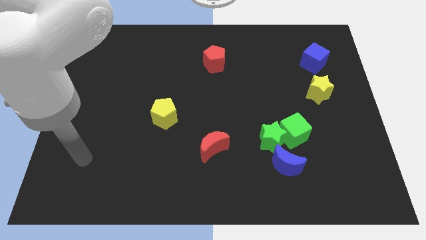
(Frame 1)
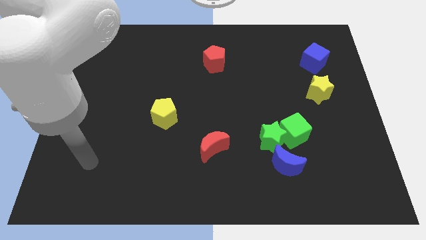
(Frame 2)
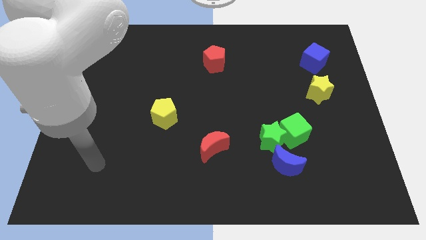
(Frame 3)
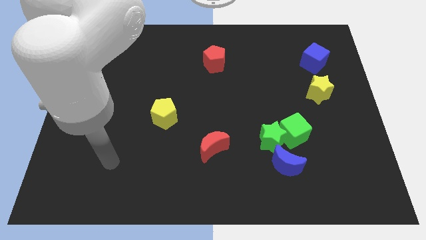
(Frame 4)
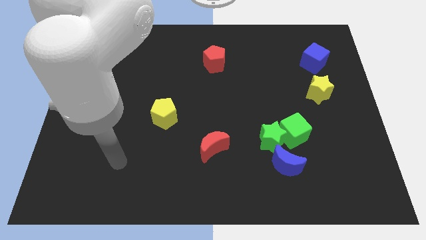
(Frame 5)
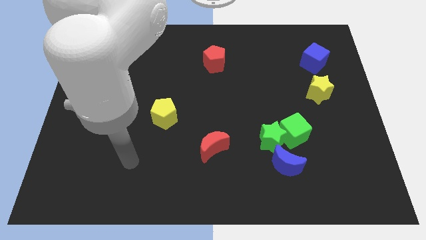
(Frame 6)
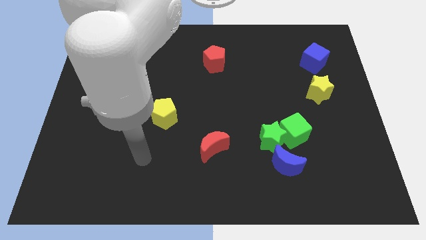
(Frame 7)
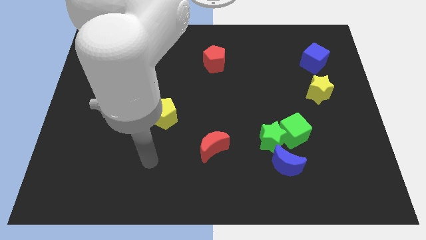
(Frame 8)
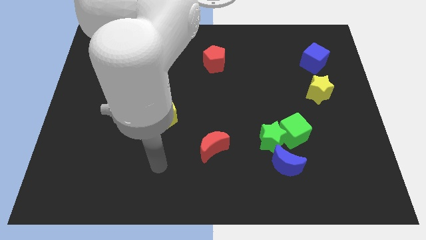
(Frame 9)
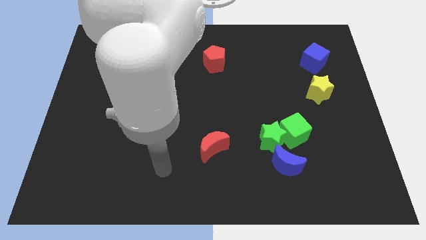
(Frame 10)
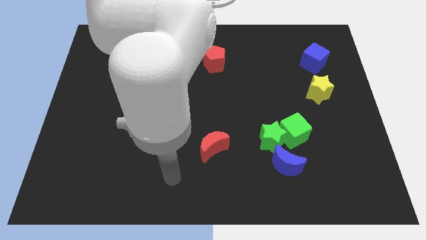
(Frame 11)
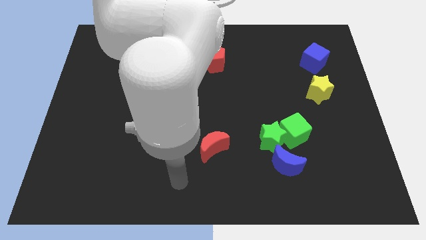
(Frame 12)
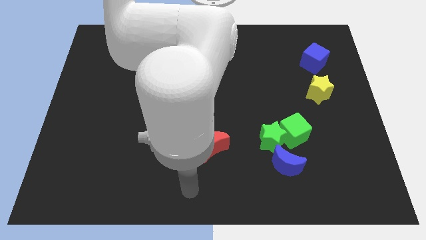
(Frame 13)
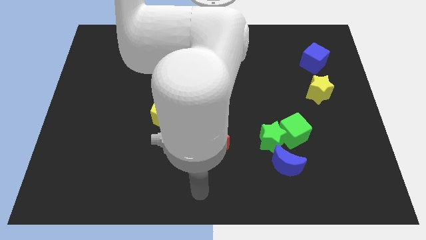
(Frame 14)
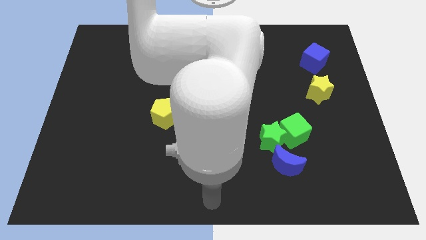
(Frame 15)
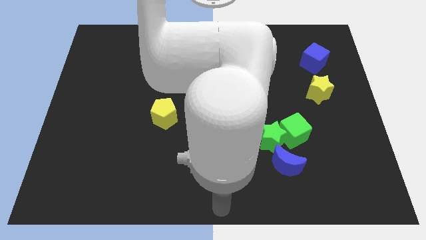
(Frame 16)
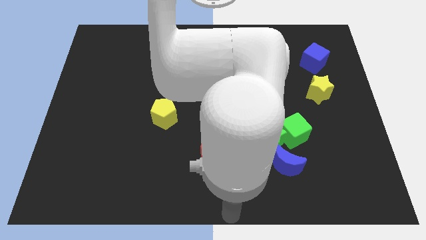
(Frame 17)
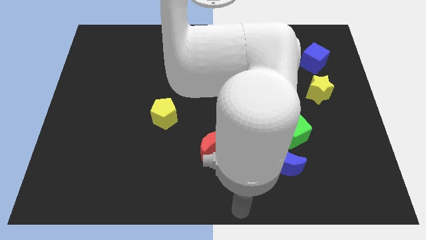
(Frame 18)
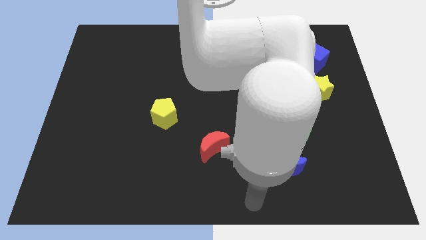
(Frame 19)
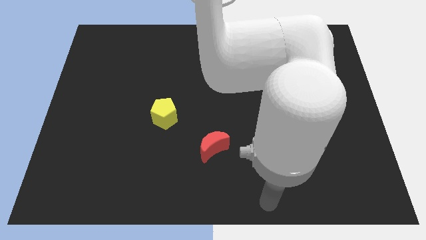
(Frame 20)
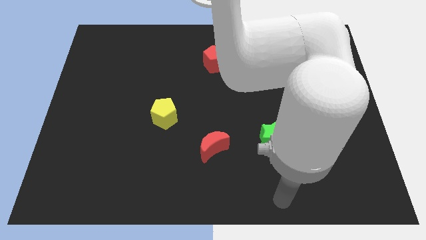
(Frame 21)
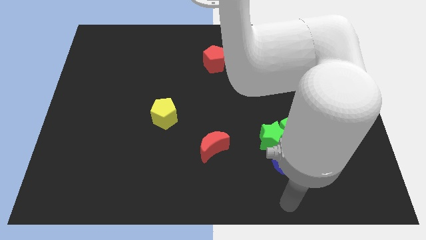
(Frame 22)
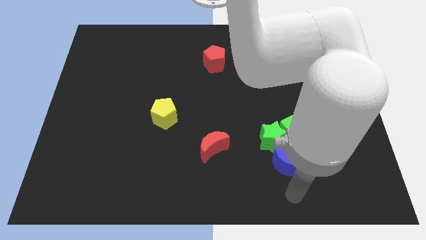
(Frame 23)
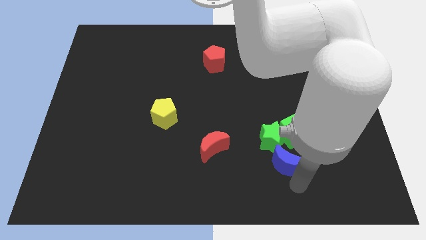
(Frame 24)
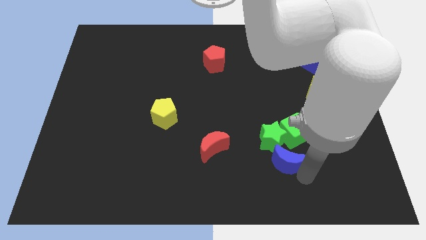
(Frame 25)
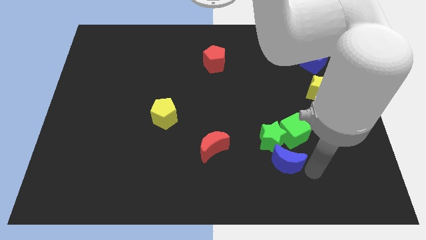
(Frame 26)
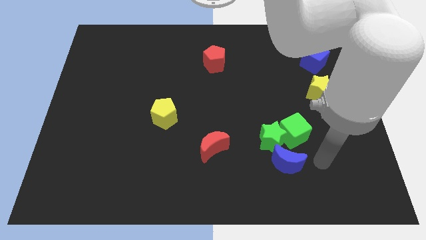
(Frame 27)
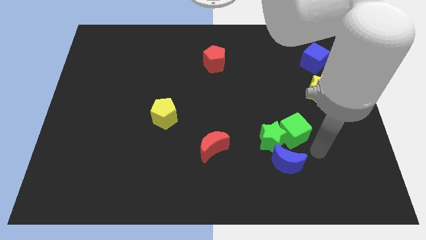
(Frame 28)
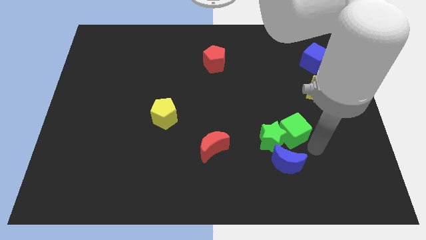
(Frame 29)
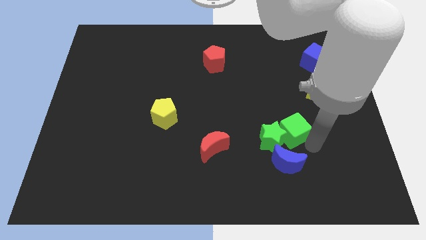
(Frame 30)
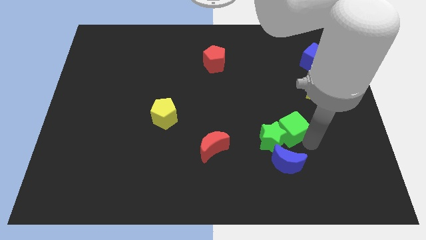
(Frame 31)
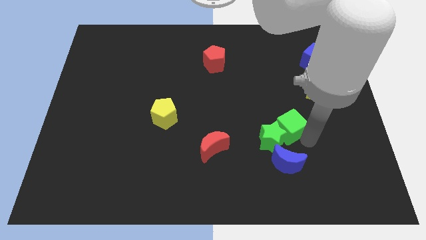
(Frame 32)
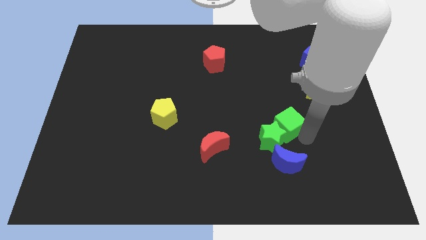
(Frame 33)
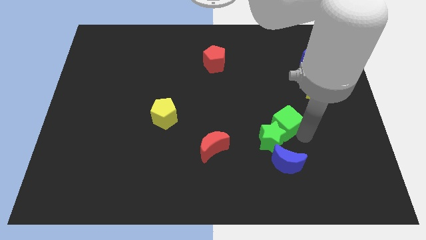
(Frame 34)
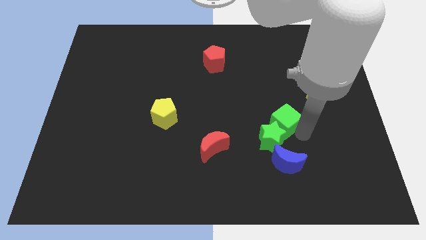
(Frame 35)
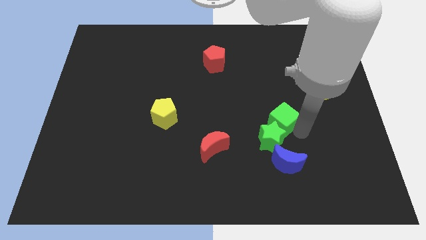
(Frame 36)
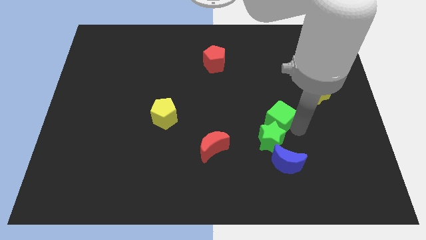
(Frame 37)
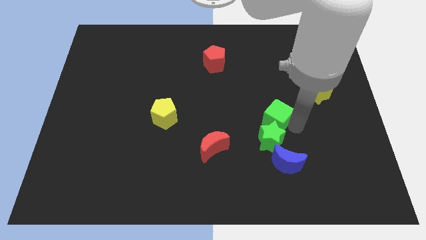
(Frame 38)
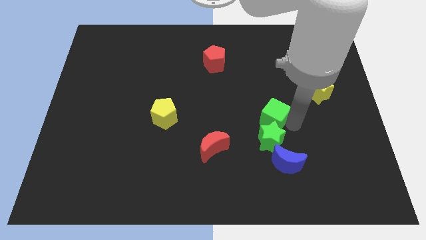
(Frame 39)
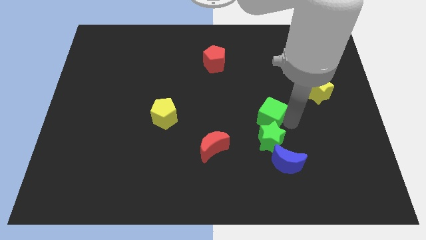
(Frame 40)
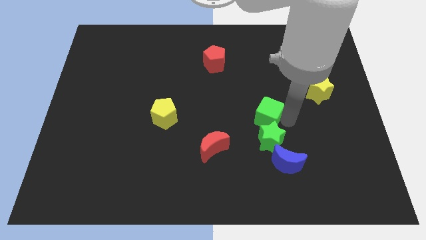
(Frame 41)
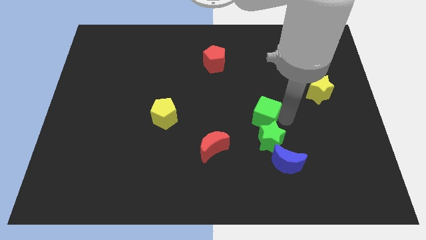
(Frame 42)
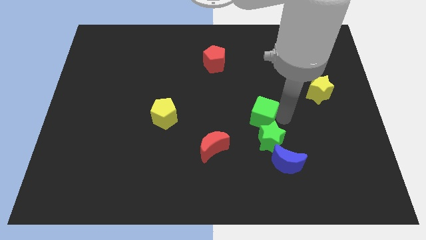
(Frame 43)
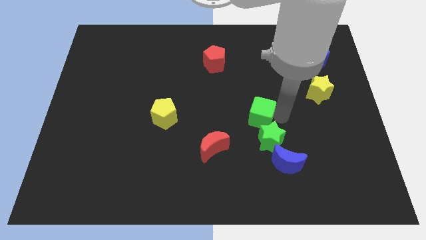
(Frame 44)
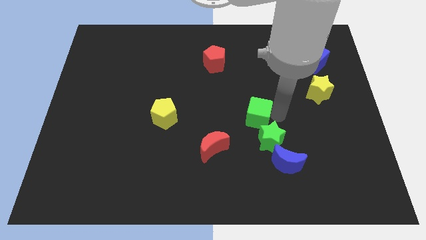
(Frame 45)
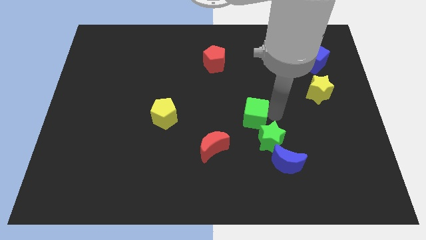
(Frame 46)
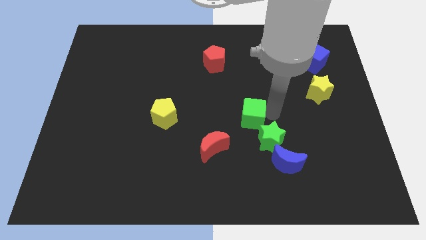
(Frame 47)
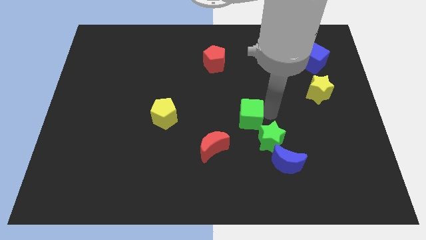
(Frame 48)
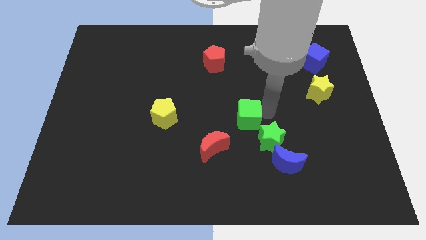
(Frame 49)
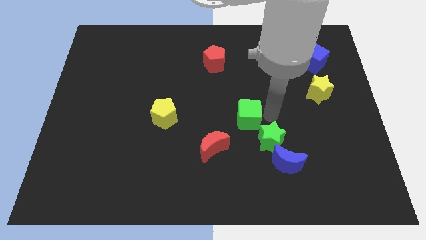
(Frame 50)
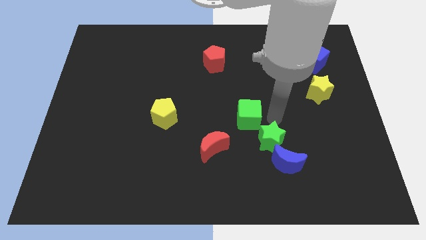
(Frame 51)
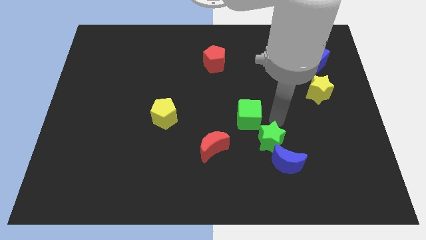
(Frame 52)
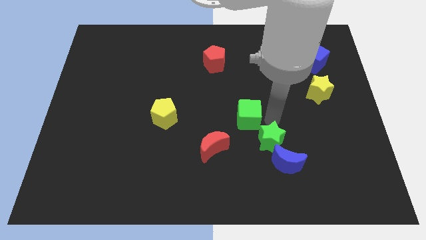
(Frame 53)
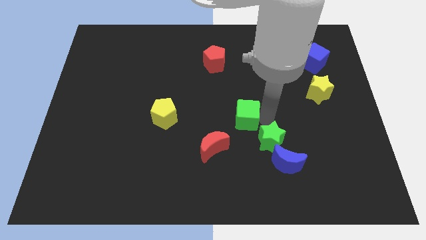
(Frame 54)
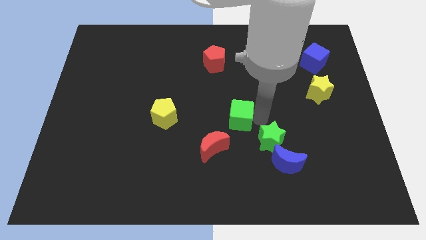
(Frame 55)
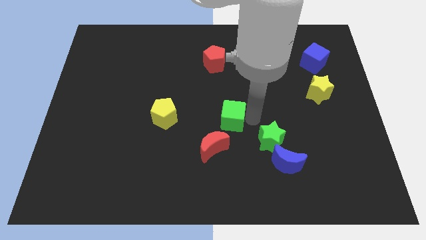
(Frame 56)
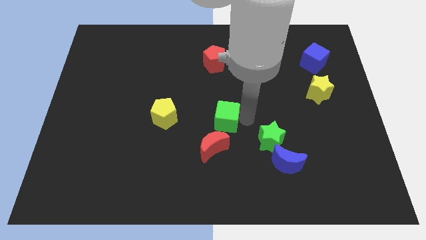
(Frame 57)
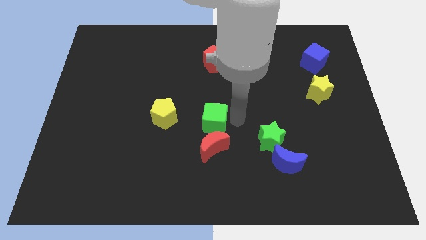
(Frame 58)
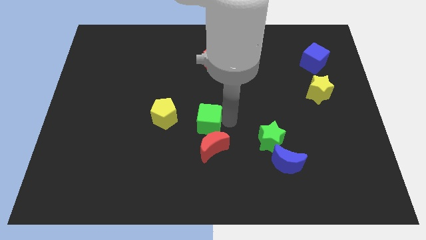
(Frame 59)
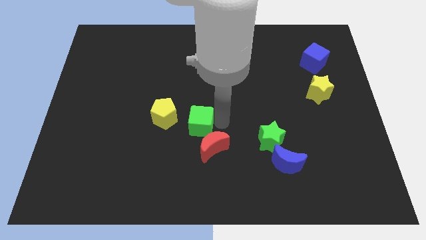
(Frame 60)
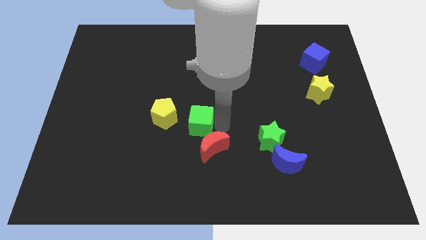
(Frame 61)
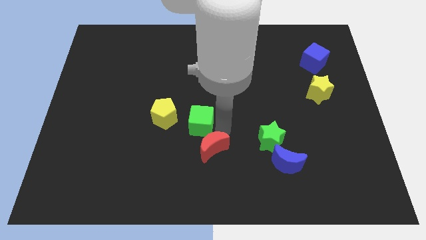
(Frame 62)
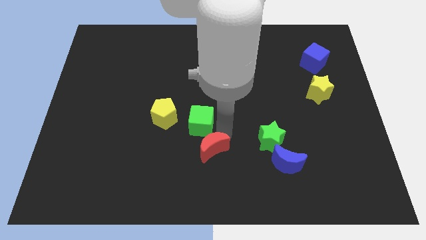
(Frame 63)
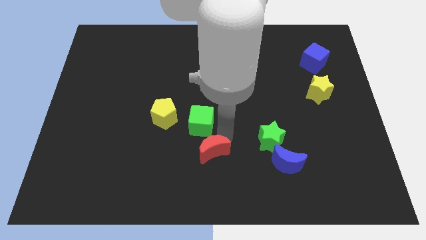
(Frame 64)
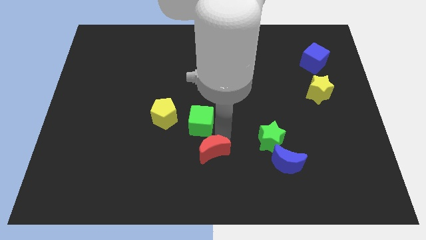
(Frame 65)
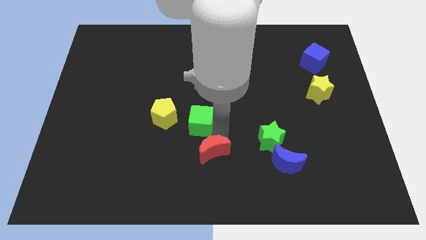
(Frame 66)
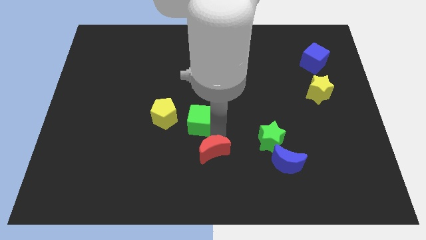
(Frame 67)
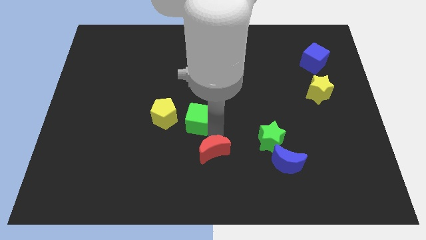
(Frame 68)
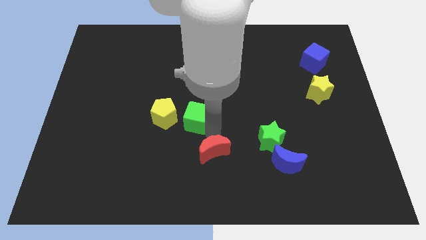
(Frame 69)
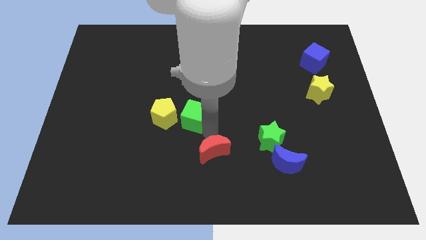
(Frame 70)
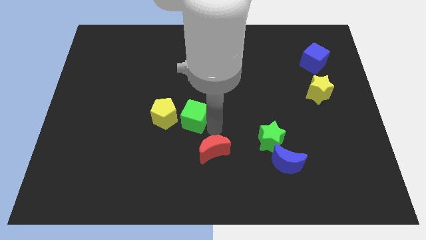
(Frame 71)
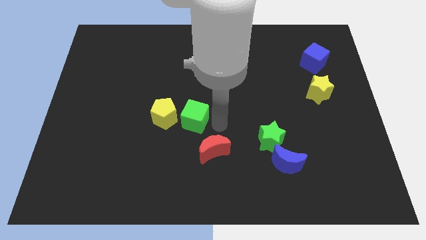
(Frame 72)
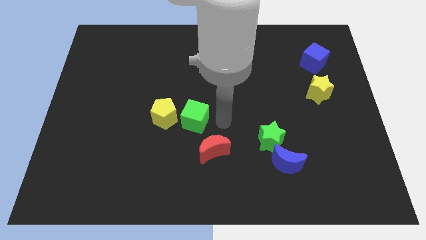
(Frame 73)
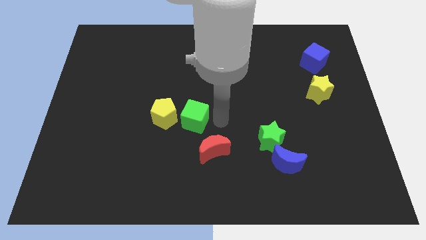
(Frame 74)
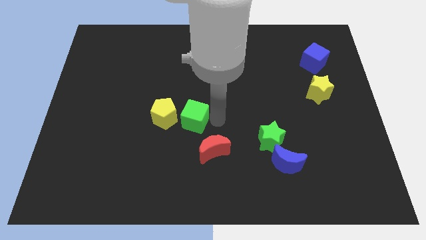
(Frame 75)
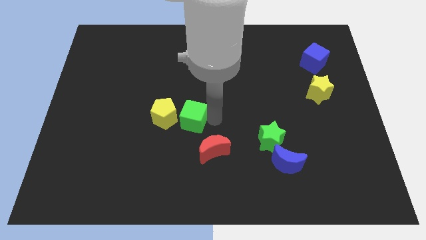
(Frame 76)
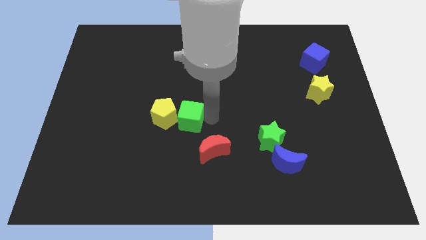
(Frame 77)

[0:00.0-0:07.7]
put the green cube next to the yellow pentagon
